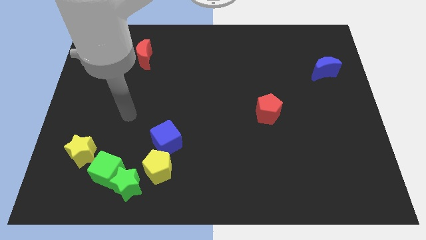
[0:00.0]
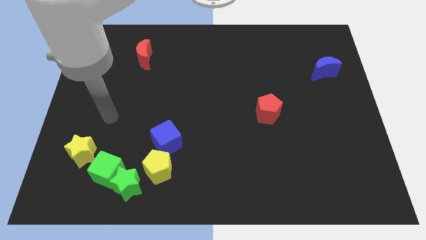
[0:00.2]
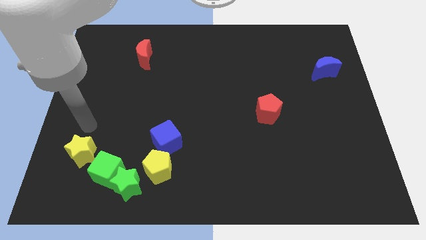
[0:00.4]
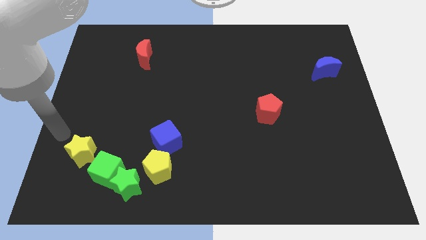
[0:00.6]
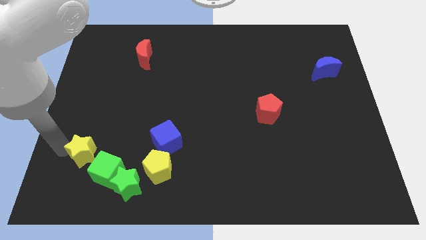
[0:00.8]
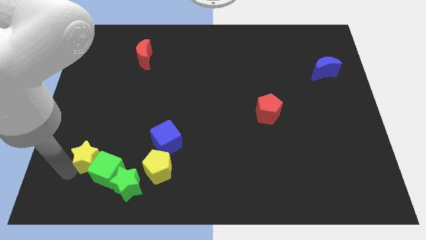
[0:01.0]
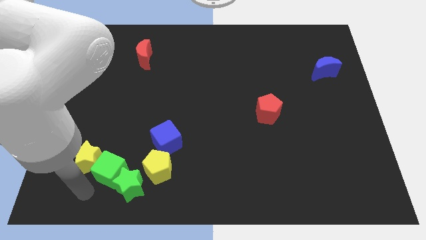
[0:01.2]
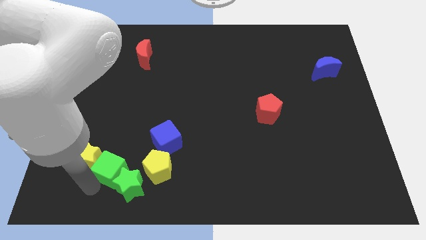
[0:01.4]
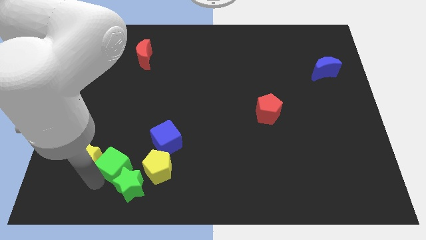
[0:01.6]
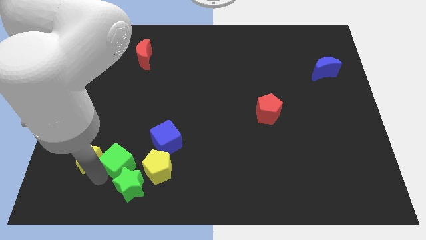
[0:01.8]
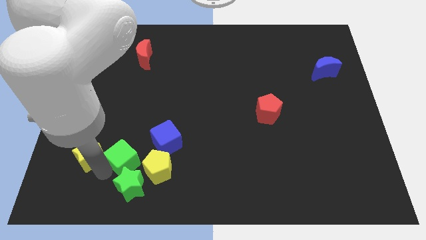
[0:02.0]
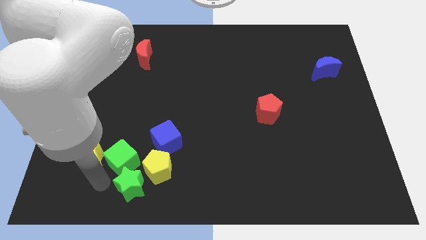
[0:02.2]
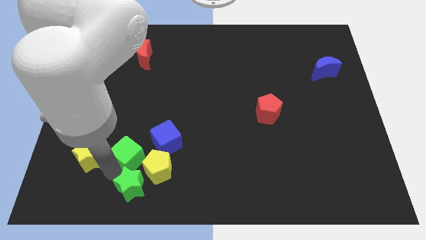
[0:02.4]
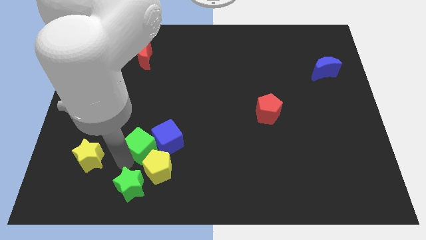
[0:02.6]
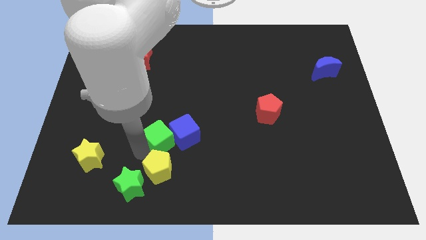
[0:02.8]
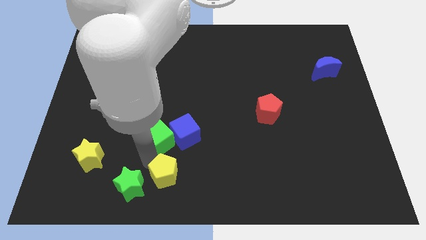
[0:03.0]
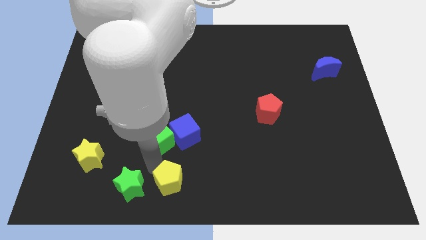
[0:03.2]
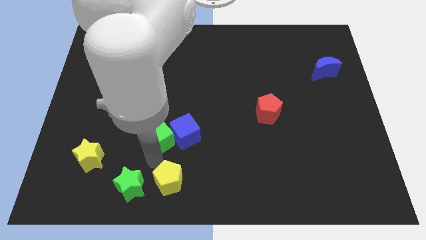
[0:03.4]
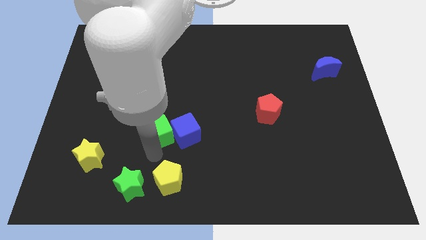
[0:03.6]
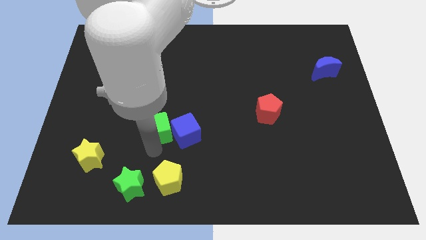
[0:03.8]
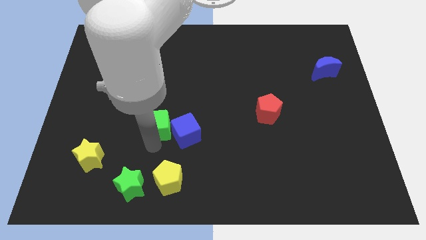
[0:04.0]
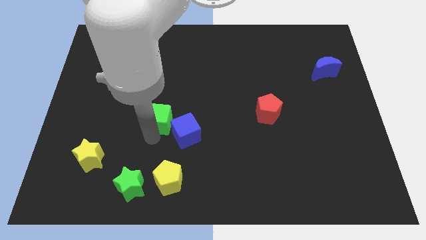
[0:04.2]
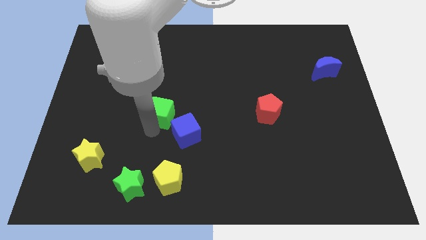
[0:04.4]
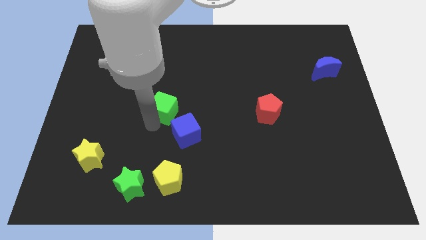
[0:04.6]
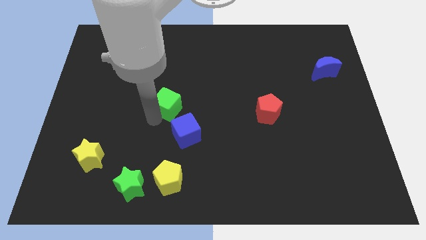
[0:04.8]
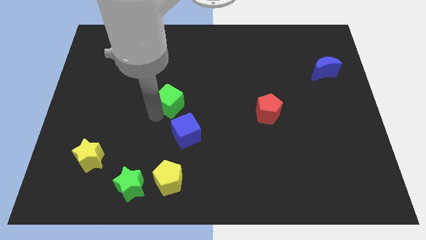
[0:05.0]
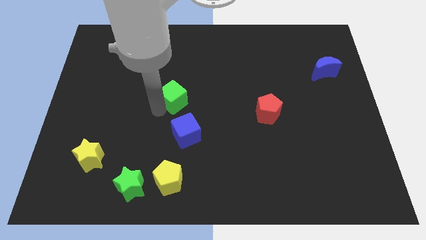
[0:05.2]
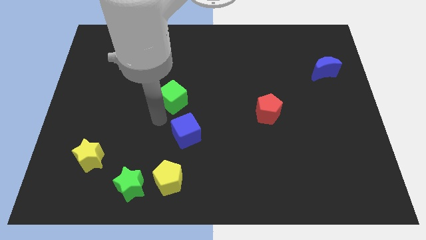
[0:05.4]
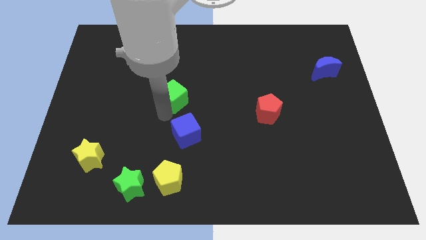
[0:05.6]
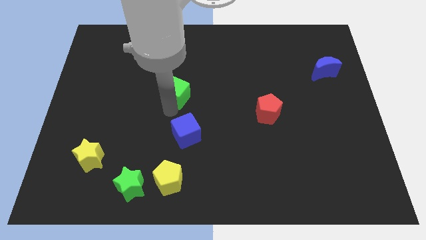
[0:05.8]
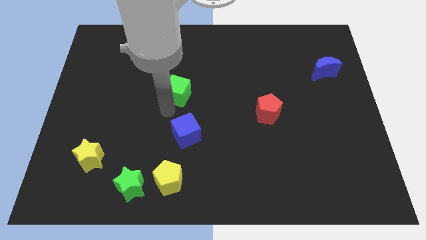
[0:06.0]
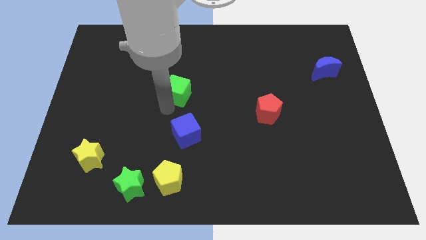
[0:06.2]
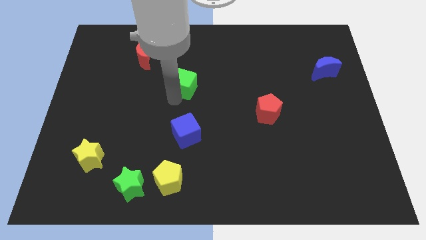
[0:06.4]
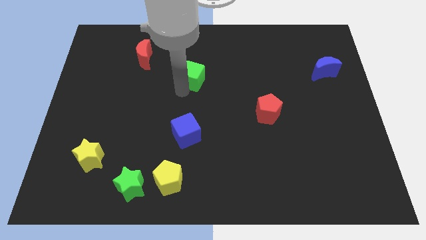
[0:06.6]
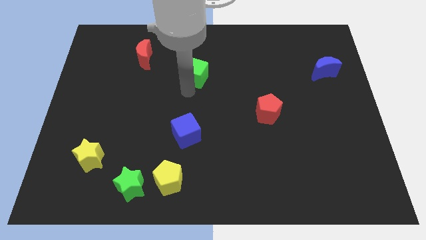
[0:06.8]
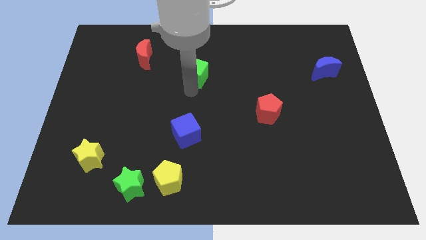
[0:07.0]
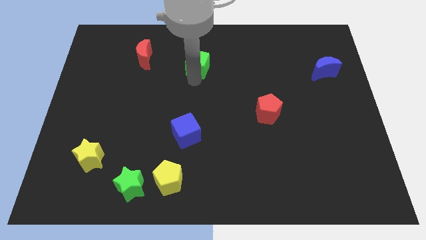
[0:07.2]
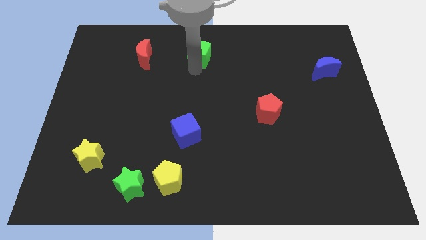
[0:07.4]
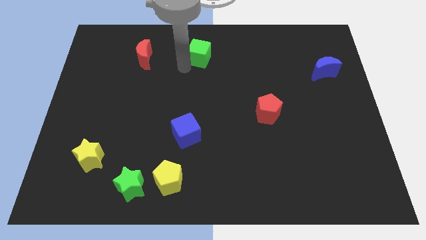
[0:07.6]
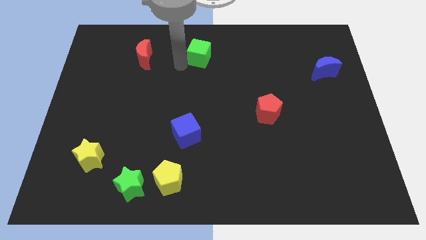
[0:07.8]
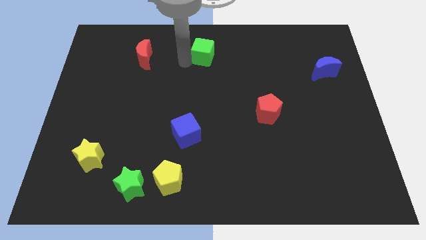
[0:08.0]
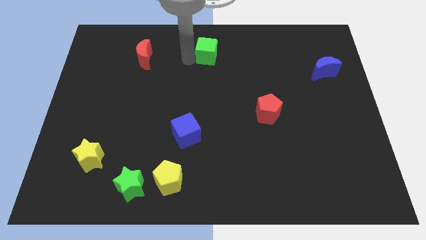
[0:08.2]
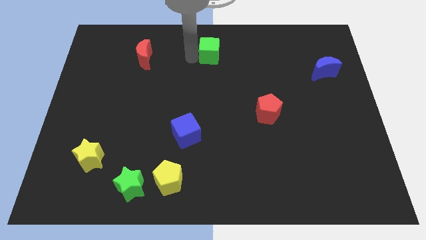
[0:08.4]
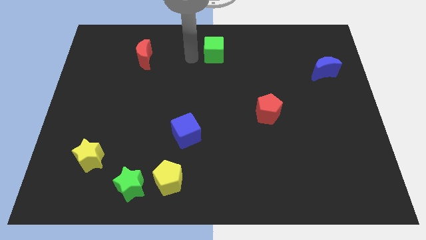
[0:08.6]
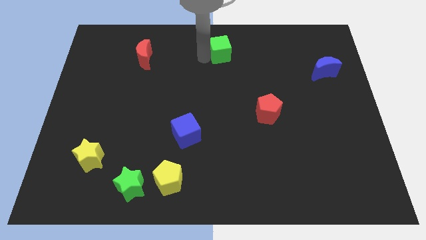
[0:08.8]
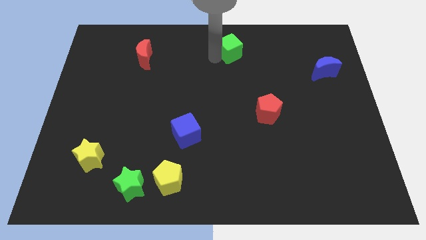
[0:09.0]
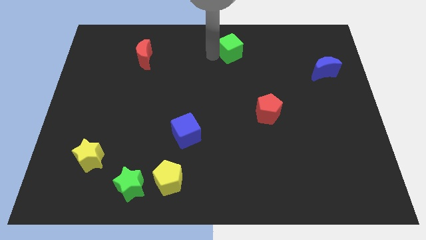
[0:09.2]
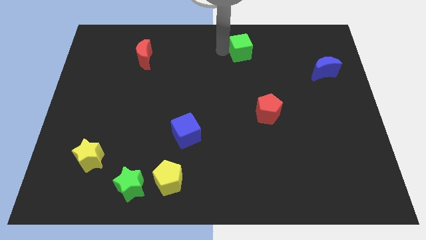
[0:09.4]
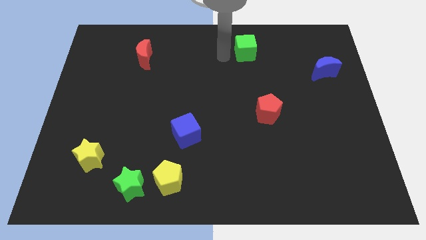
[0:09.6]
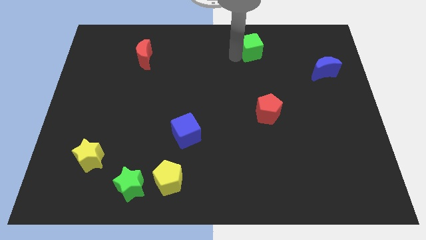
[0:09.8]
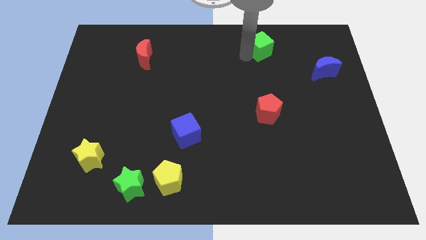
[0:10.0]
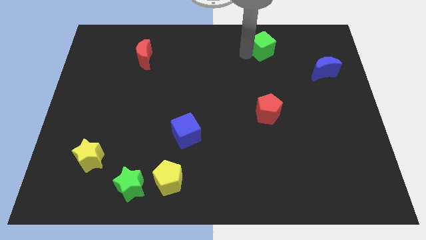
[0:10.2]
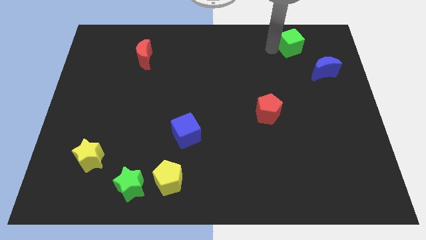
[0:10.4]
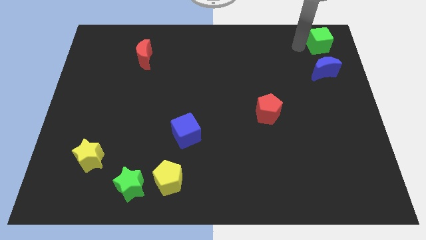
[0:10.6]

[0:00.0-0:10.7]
push the green cube to the top right corner
